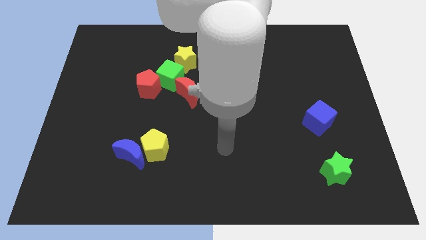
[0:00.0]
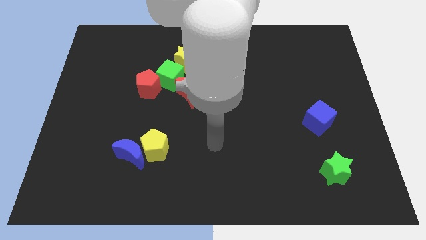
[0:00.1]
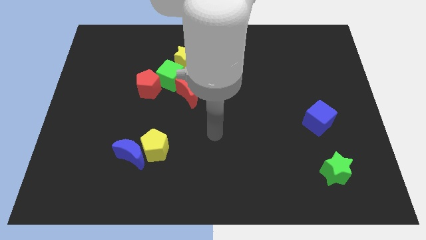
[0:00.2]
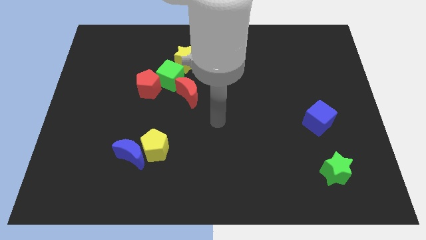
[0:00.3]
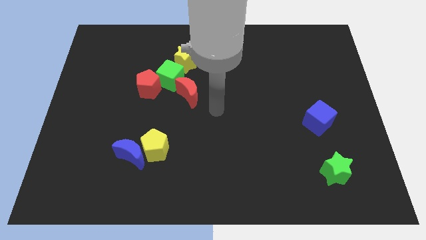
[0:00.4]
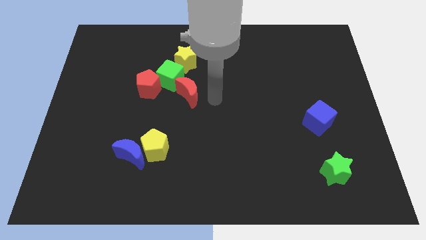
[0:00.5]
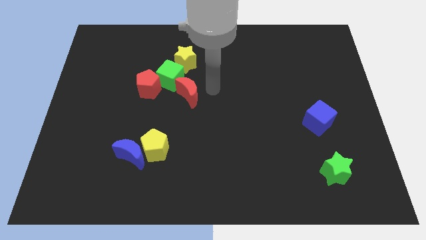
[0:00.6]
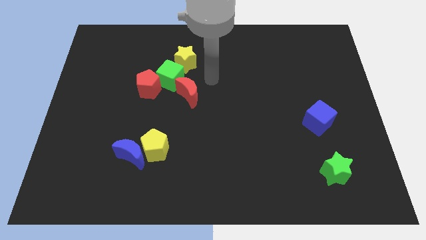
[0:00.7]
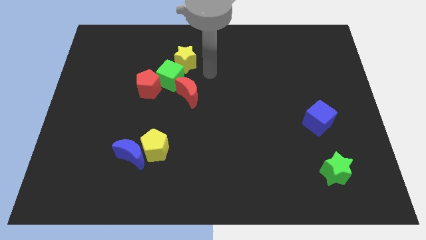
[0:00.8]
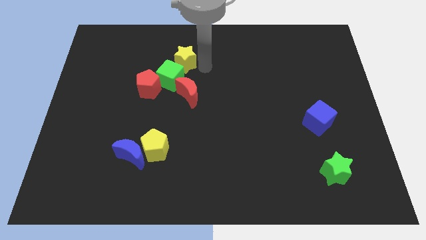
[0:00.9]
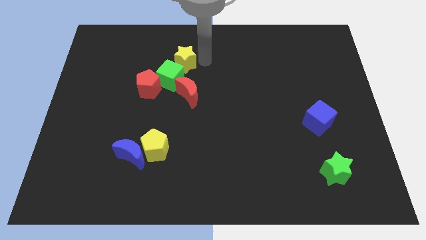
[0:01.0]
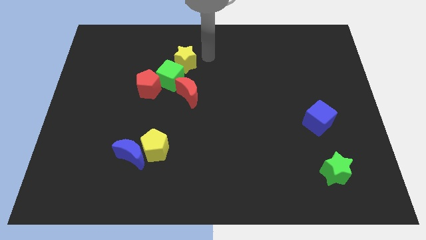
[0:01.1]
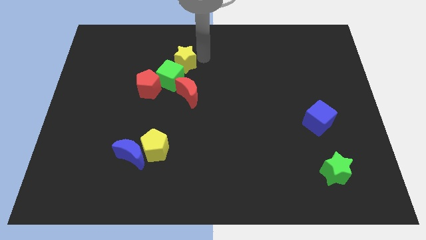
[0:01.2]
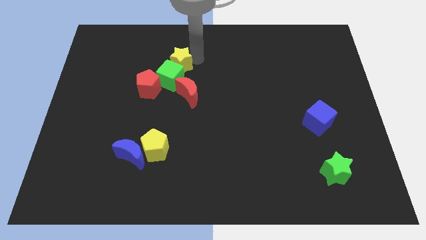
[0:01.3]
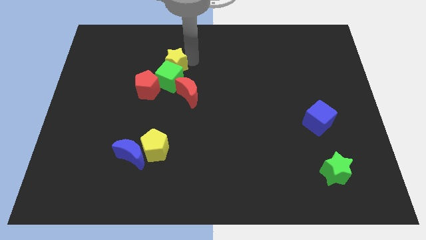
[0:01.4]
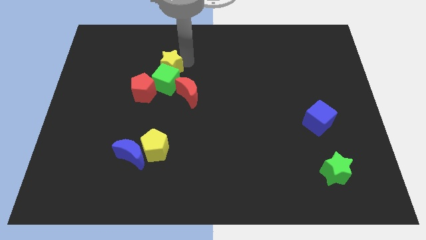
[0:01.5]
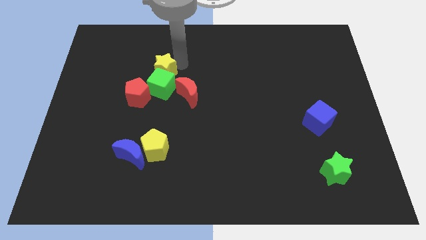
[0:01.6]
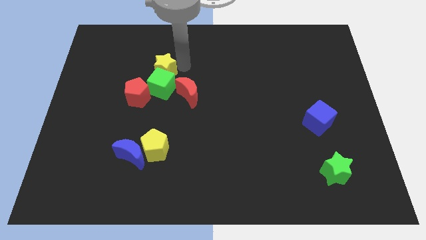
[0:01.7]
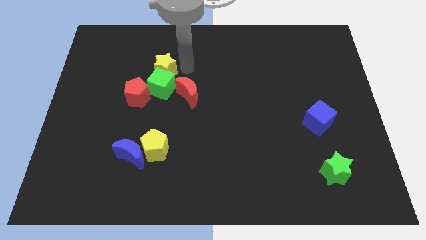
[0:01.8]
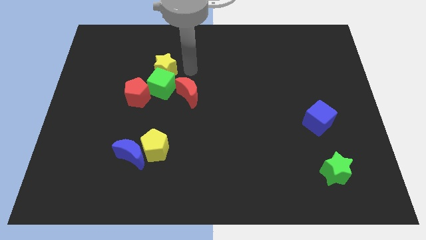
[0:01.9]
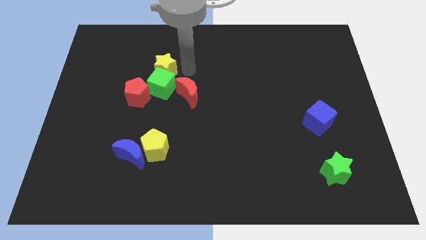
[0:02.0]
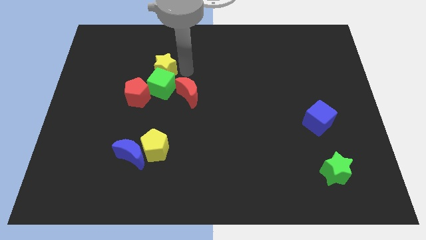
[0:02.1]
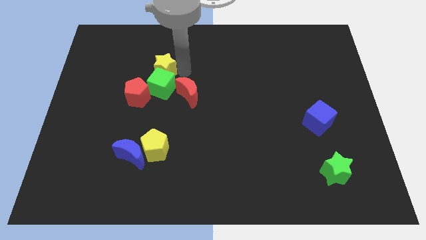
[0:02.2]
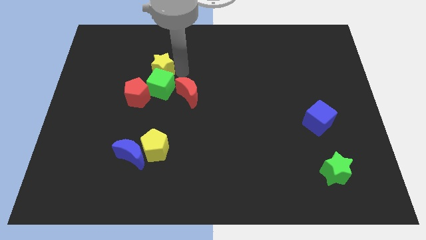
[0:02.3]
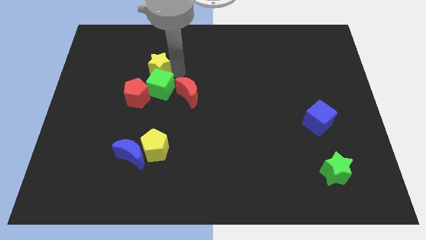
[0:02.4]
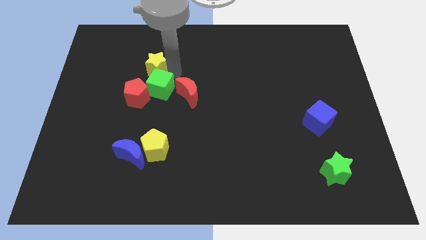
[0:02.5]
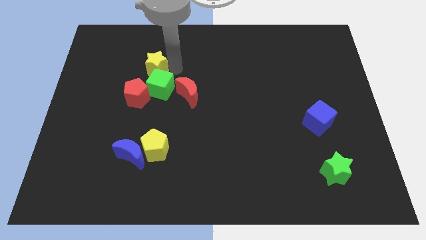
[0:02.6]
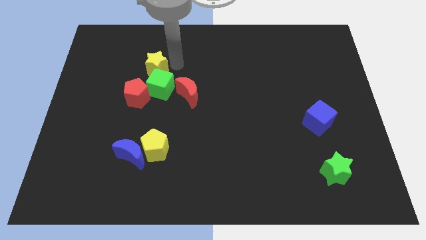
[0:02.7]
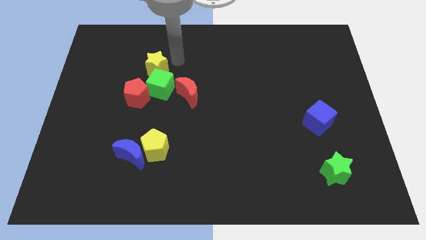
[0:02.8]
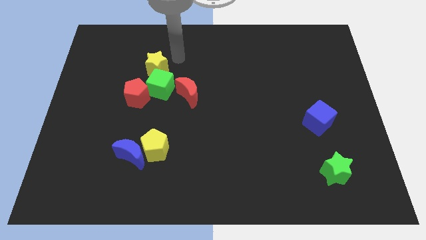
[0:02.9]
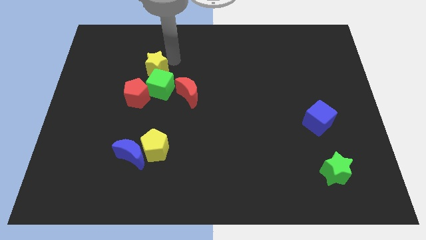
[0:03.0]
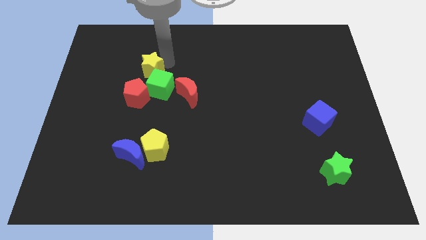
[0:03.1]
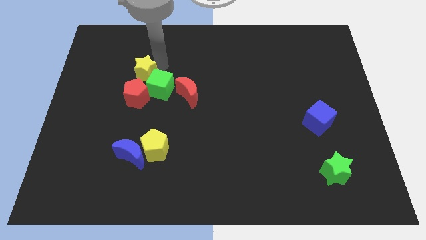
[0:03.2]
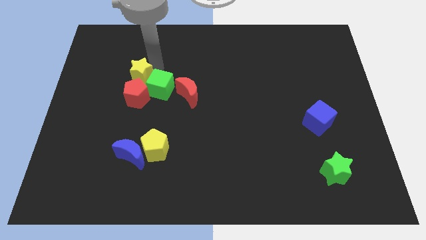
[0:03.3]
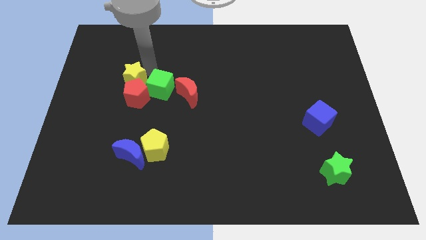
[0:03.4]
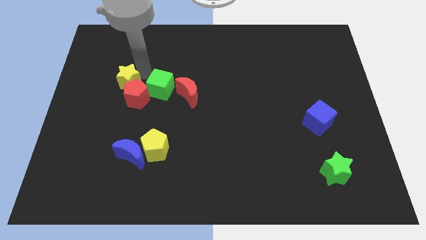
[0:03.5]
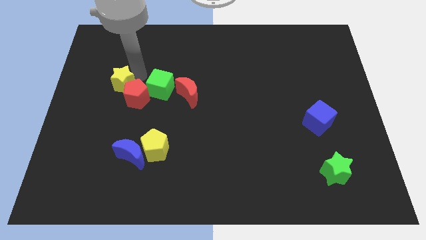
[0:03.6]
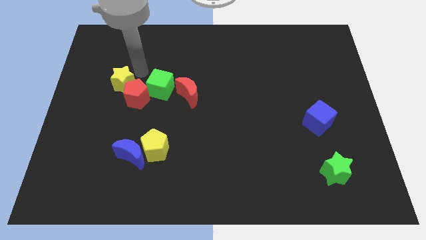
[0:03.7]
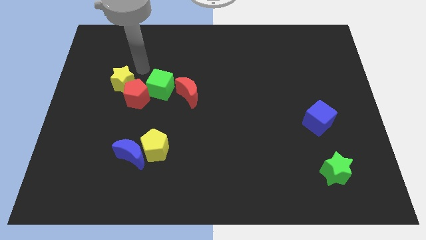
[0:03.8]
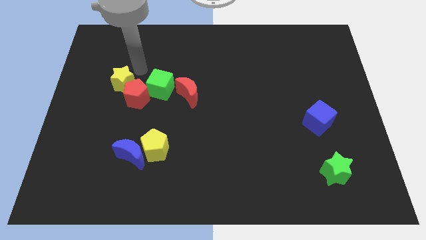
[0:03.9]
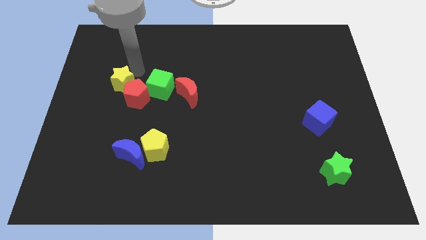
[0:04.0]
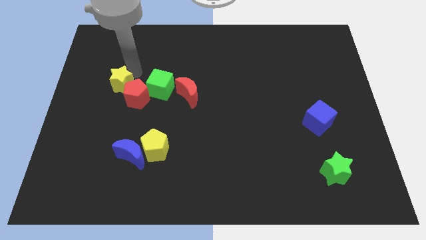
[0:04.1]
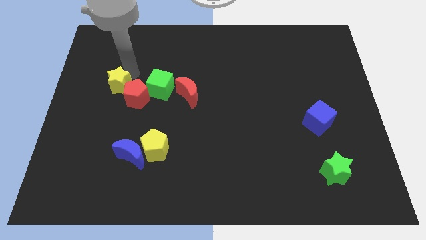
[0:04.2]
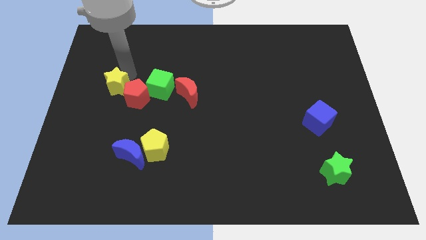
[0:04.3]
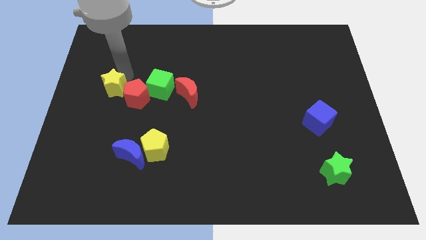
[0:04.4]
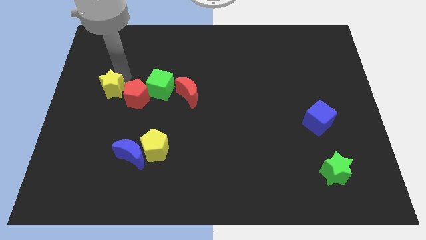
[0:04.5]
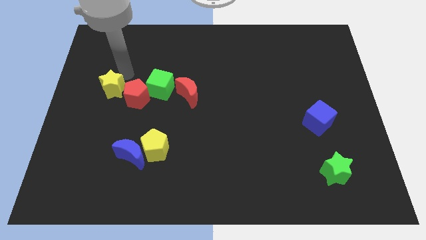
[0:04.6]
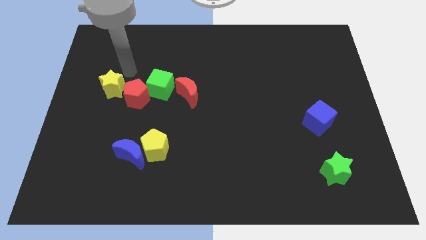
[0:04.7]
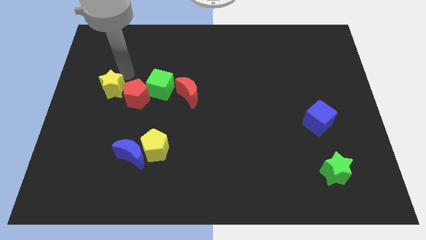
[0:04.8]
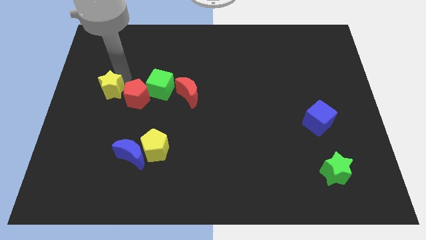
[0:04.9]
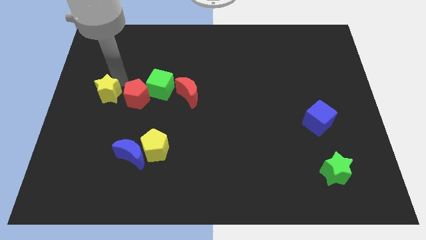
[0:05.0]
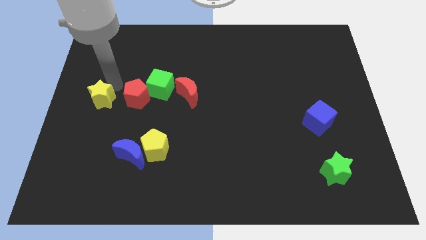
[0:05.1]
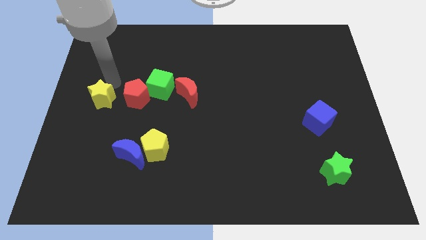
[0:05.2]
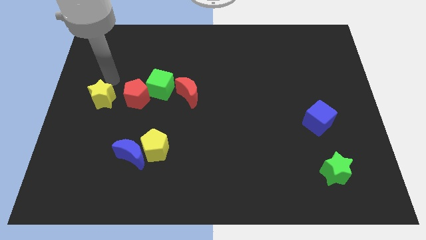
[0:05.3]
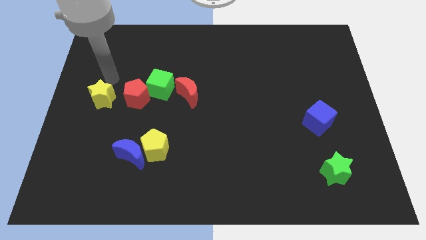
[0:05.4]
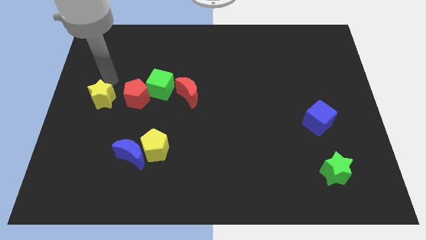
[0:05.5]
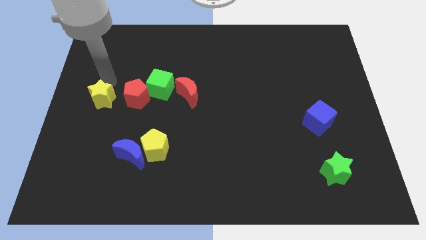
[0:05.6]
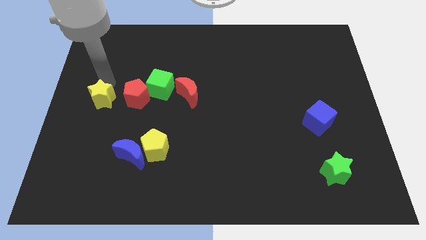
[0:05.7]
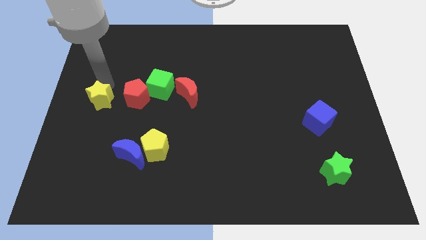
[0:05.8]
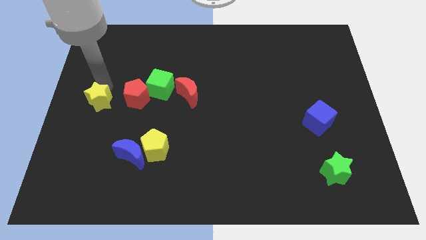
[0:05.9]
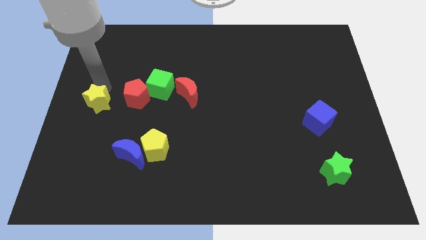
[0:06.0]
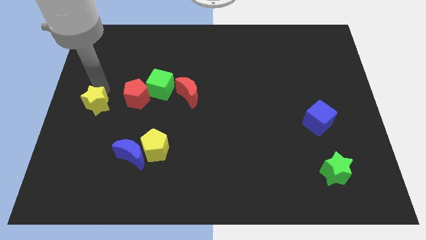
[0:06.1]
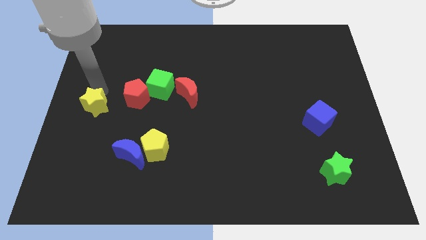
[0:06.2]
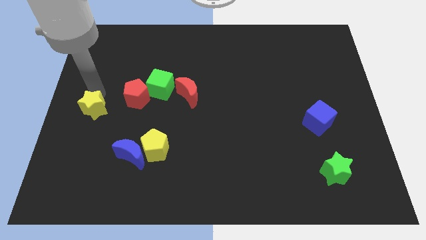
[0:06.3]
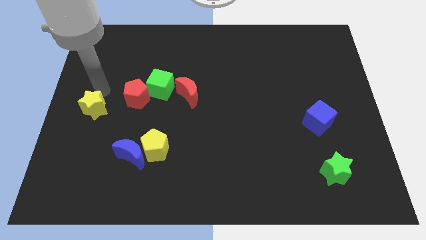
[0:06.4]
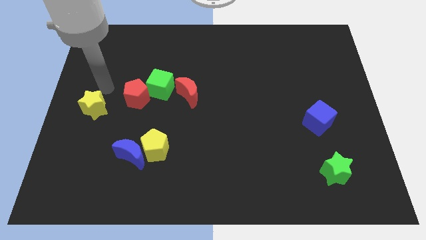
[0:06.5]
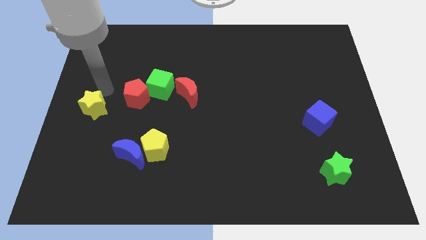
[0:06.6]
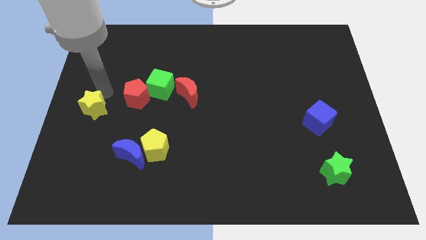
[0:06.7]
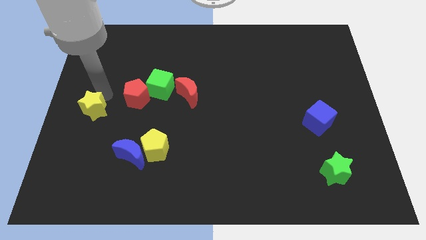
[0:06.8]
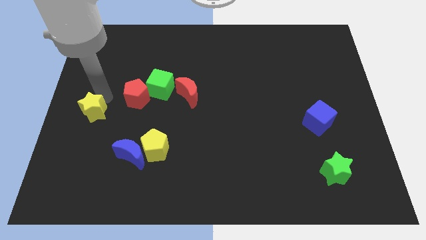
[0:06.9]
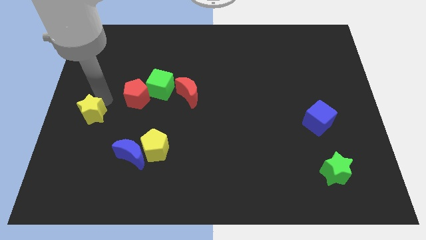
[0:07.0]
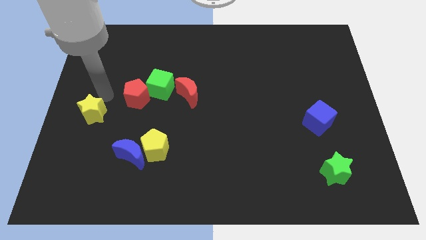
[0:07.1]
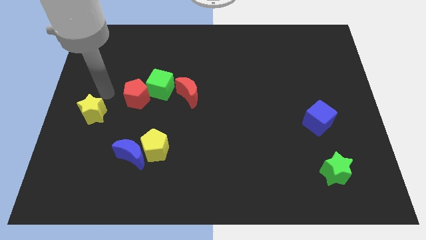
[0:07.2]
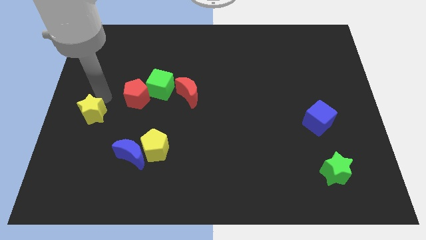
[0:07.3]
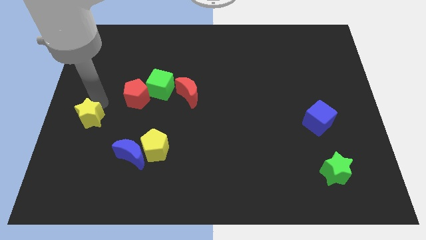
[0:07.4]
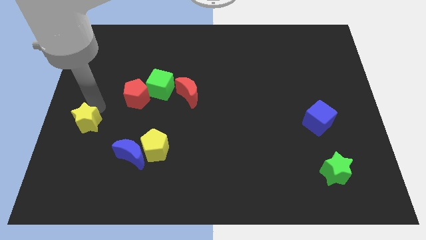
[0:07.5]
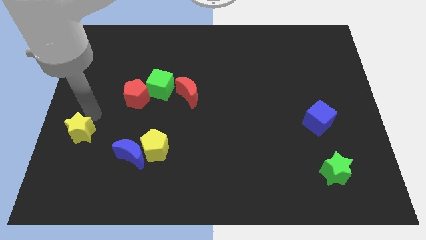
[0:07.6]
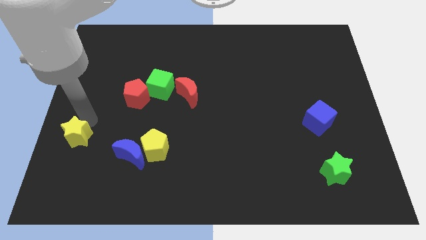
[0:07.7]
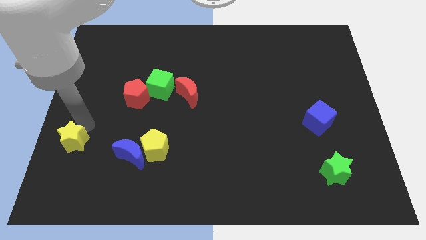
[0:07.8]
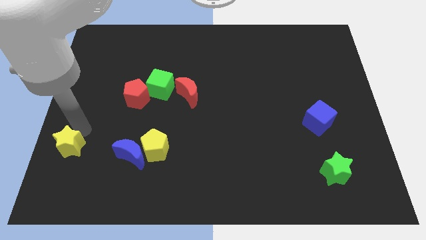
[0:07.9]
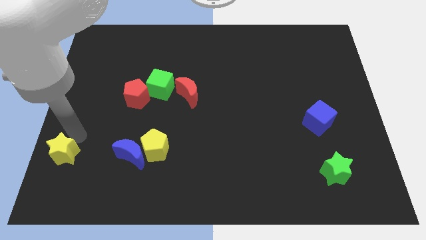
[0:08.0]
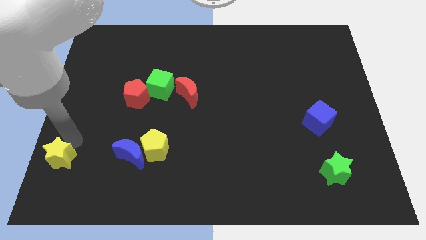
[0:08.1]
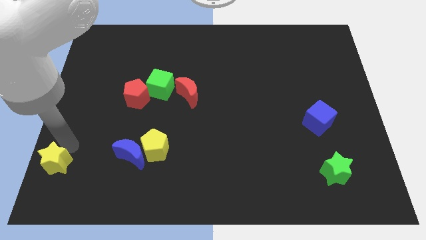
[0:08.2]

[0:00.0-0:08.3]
move the yellow star to the lower left corner
